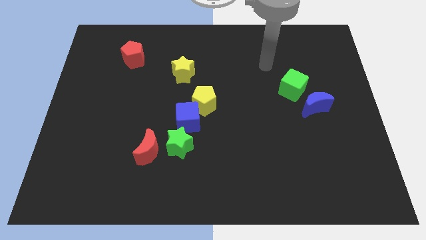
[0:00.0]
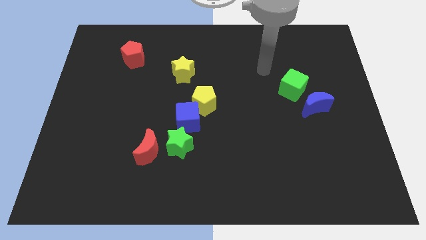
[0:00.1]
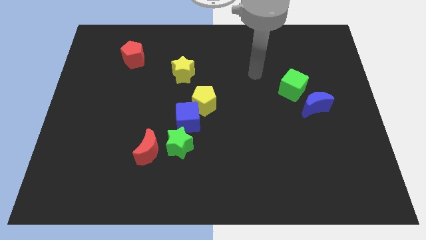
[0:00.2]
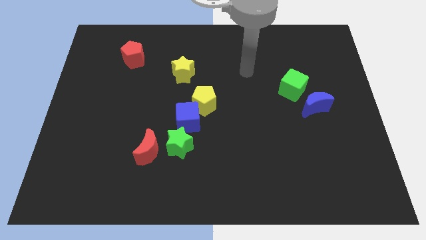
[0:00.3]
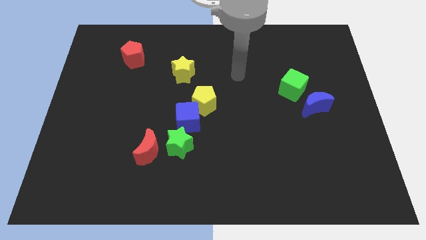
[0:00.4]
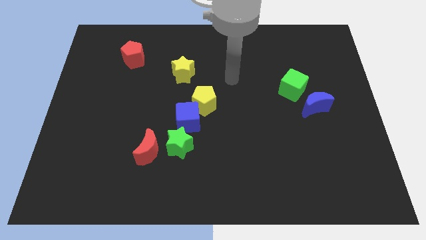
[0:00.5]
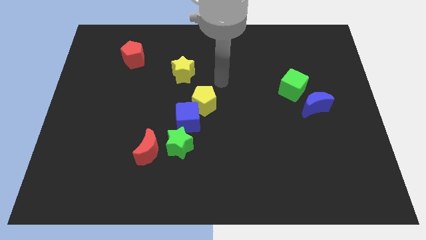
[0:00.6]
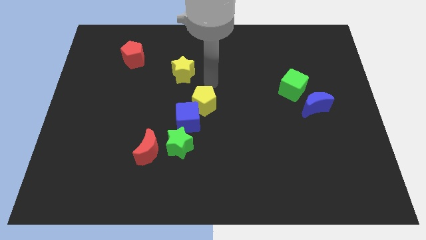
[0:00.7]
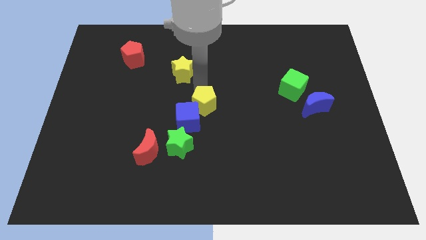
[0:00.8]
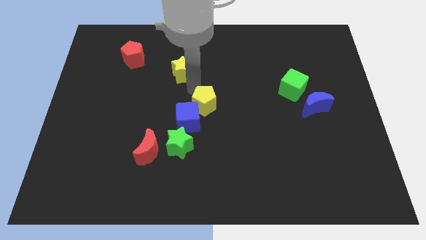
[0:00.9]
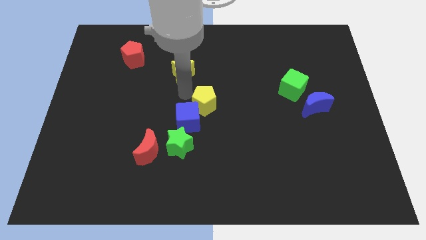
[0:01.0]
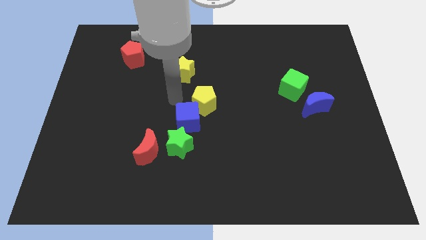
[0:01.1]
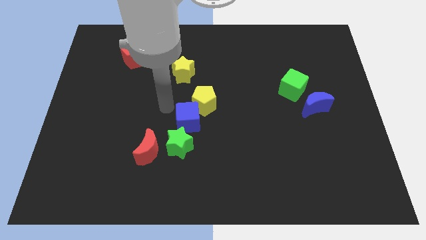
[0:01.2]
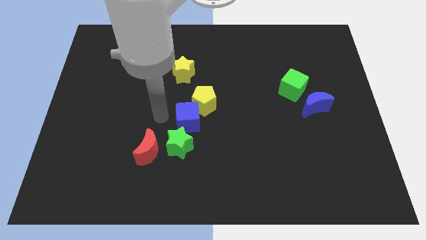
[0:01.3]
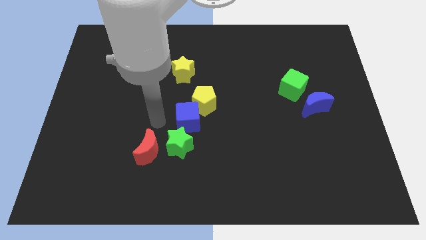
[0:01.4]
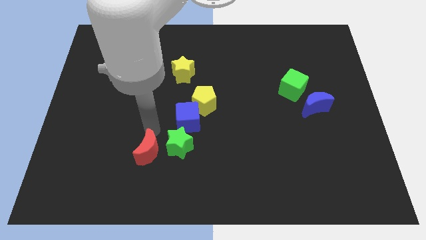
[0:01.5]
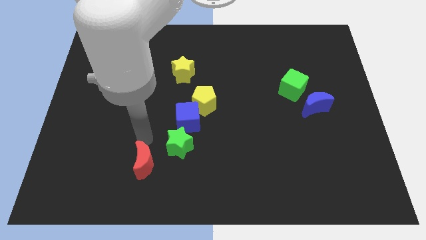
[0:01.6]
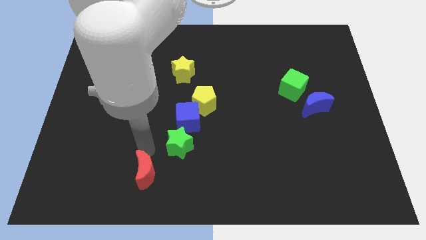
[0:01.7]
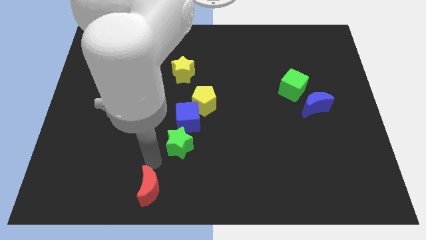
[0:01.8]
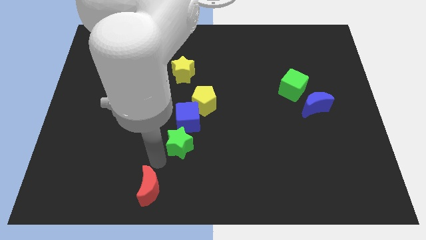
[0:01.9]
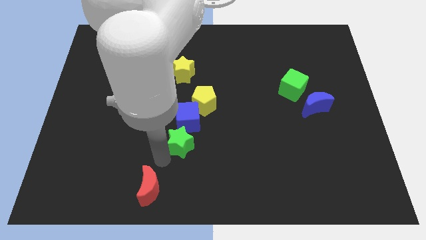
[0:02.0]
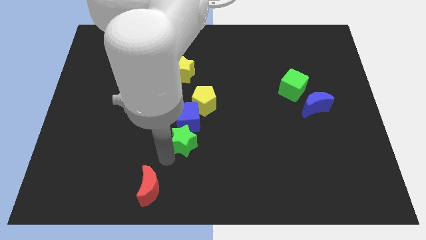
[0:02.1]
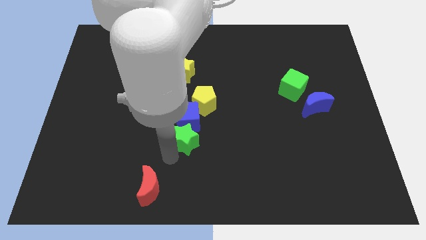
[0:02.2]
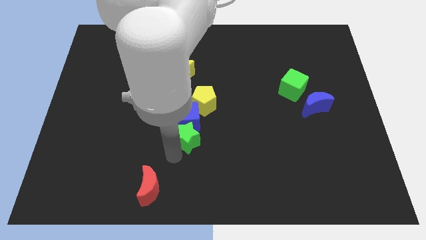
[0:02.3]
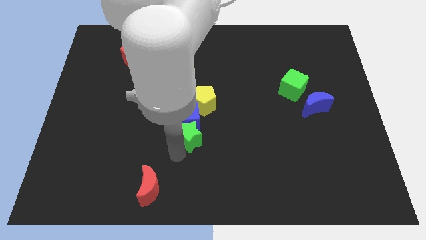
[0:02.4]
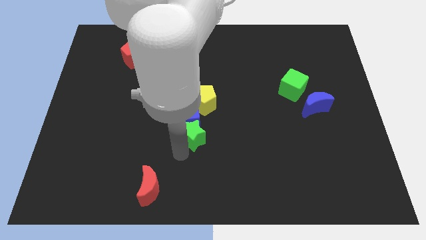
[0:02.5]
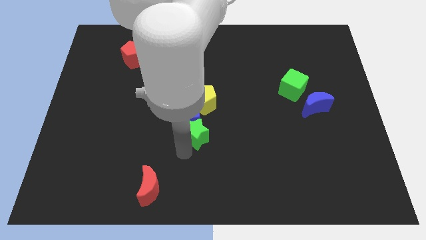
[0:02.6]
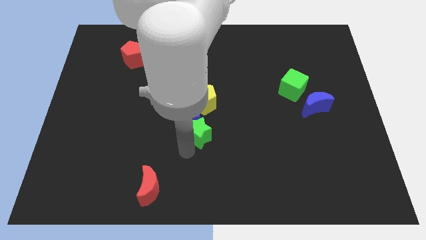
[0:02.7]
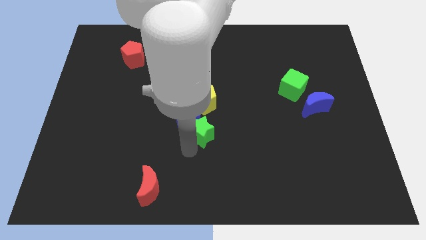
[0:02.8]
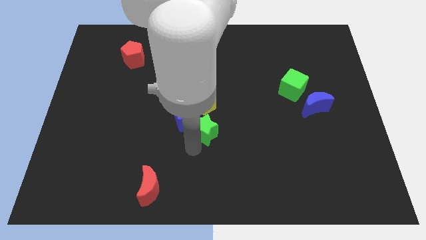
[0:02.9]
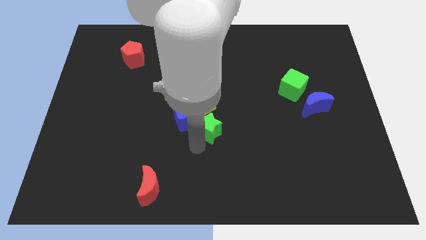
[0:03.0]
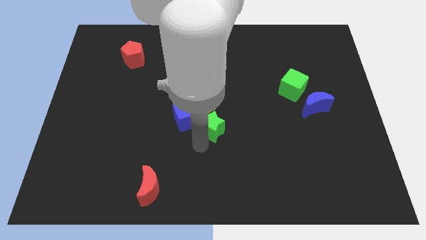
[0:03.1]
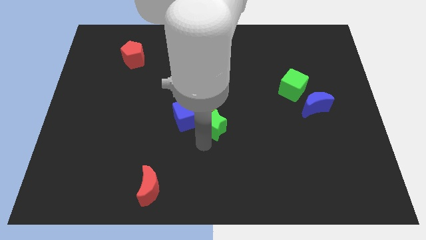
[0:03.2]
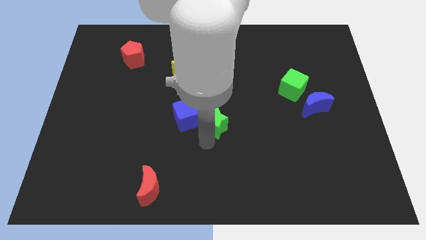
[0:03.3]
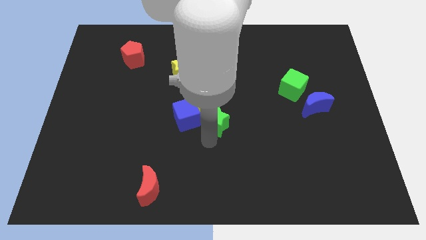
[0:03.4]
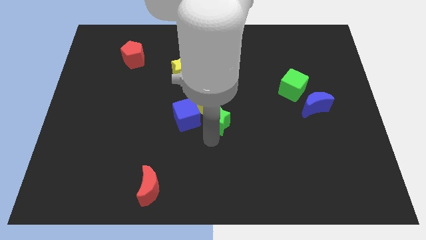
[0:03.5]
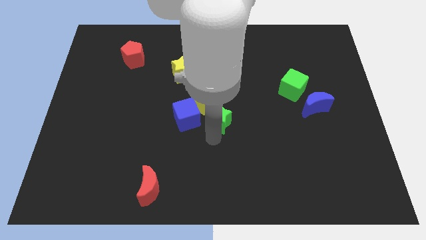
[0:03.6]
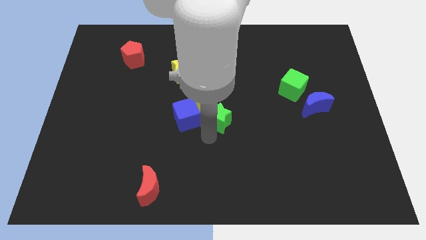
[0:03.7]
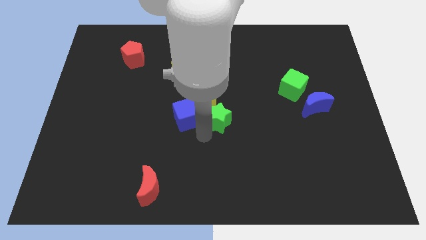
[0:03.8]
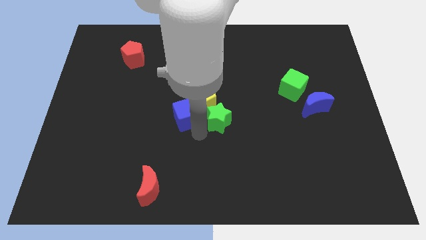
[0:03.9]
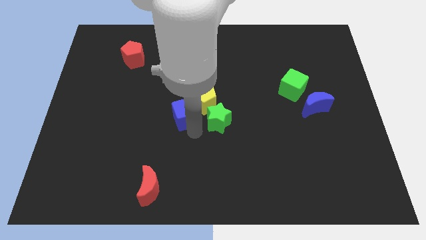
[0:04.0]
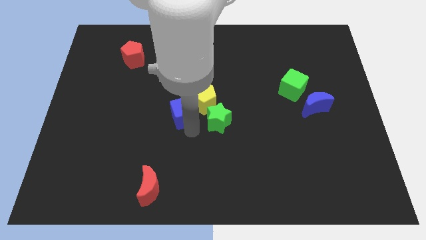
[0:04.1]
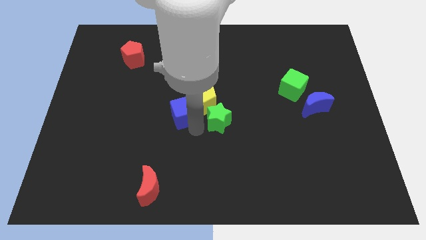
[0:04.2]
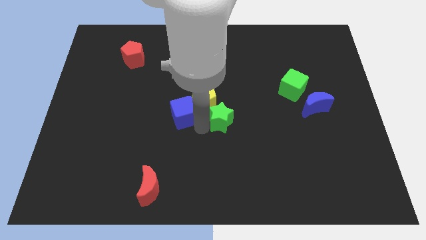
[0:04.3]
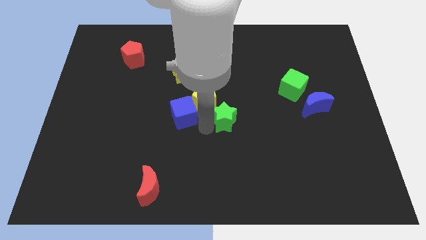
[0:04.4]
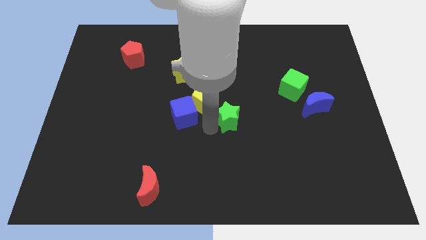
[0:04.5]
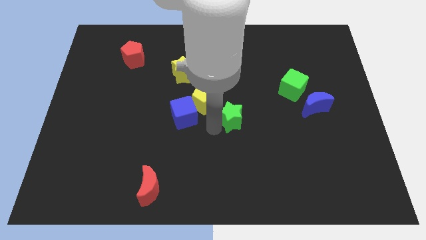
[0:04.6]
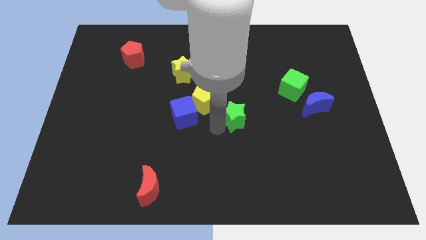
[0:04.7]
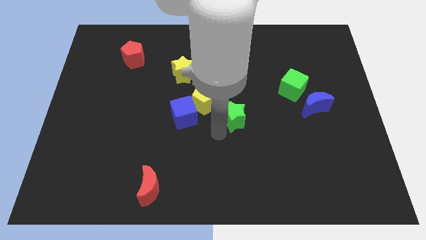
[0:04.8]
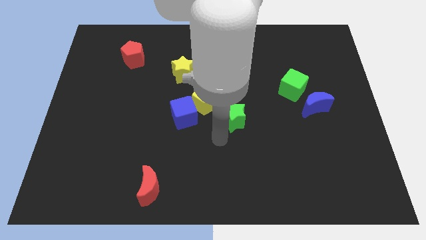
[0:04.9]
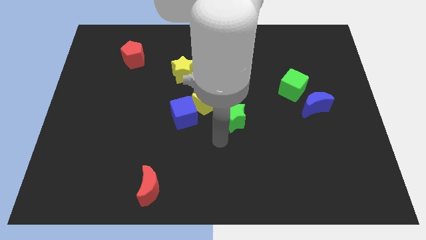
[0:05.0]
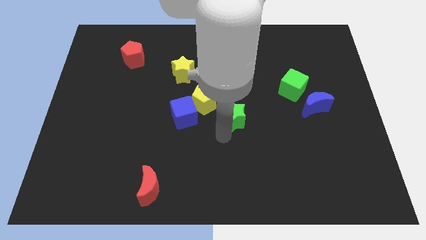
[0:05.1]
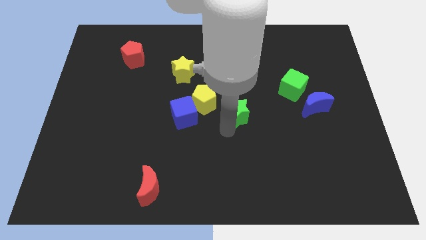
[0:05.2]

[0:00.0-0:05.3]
push the green star to the right side of the yellow pentagon

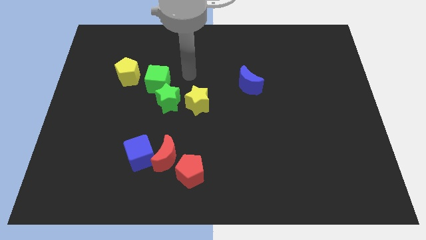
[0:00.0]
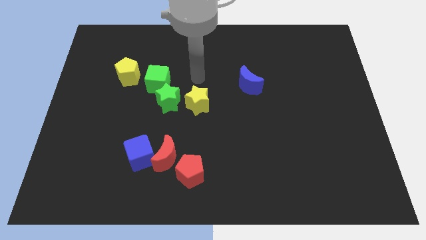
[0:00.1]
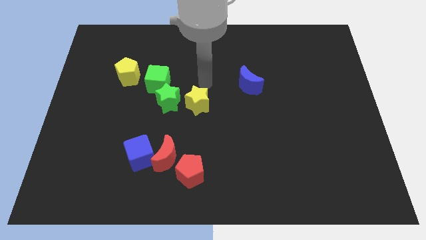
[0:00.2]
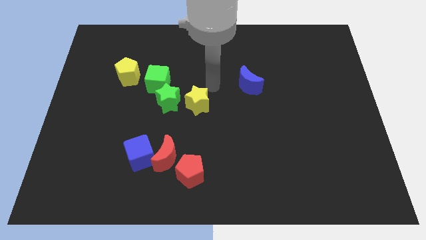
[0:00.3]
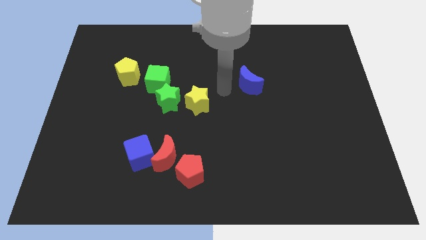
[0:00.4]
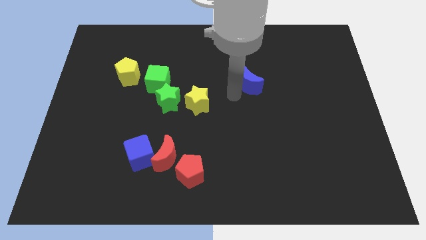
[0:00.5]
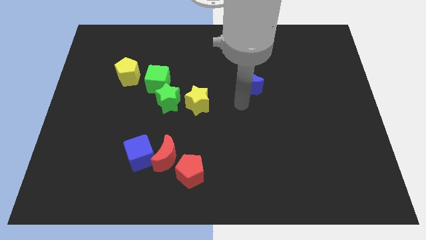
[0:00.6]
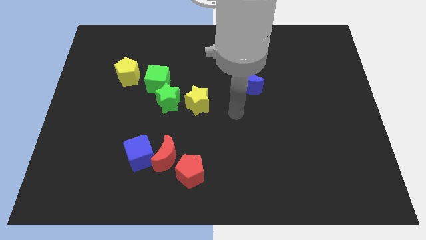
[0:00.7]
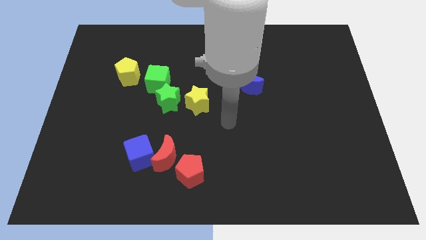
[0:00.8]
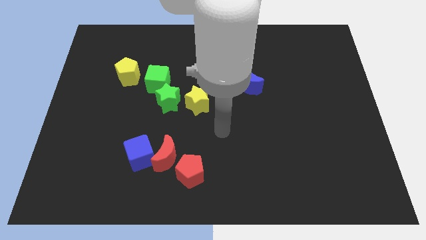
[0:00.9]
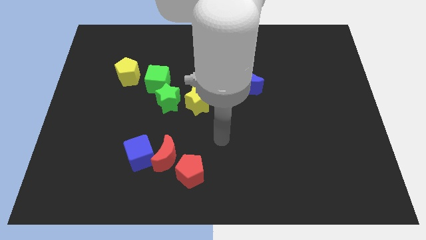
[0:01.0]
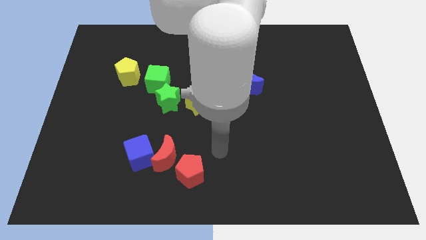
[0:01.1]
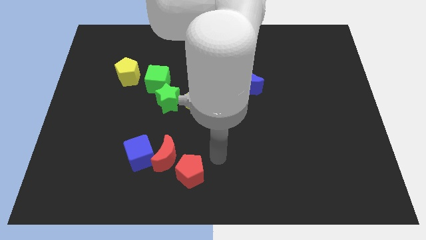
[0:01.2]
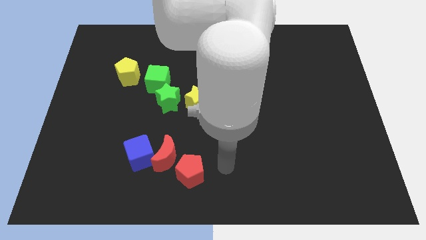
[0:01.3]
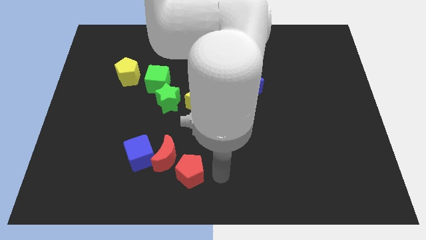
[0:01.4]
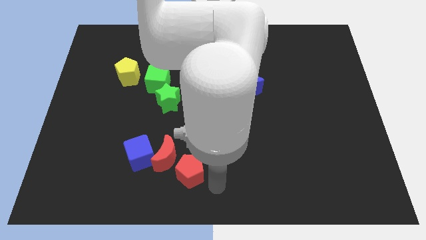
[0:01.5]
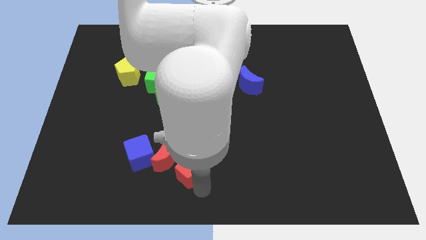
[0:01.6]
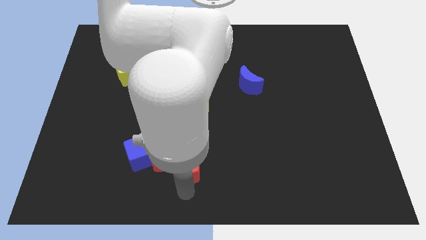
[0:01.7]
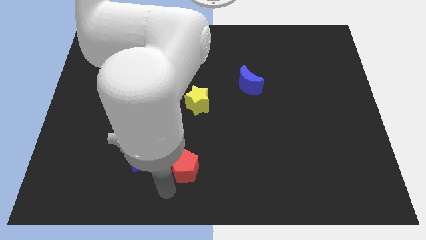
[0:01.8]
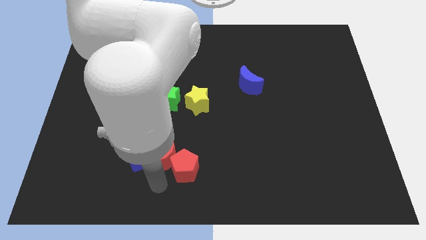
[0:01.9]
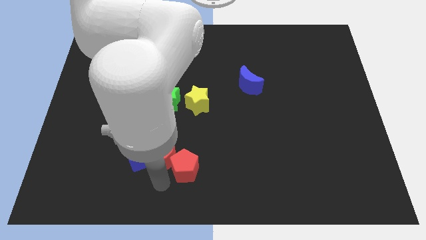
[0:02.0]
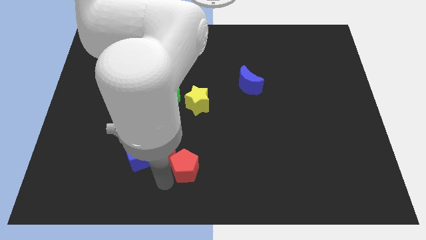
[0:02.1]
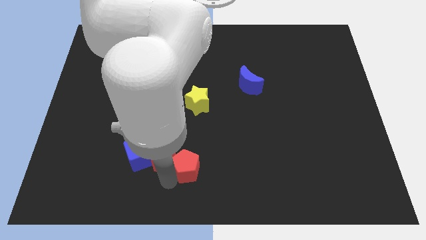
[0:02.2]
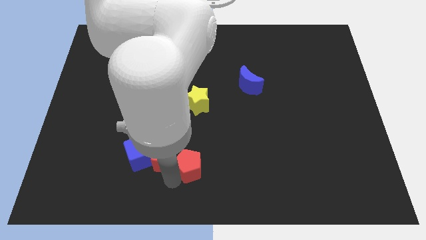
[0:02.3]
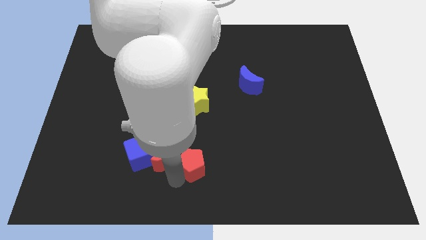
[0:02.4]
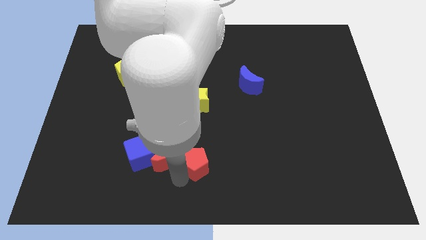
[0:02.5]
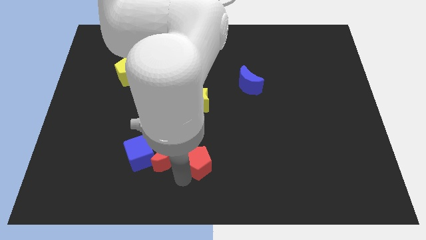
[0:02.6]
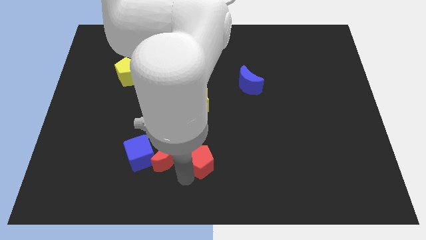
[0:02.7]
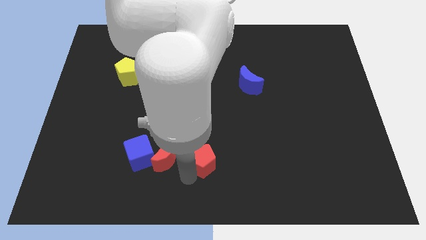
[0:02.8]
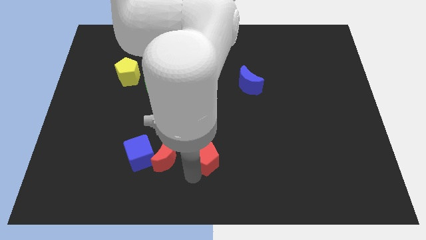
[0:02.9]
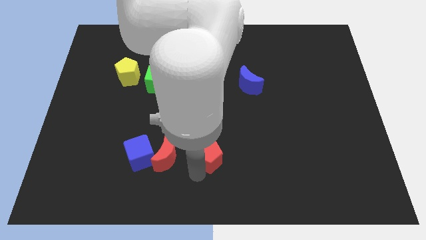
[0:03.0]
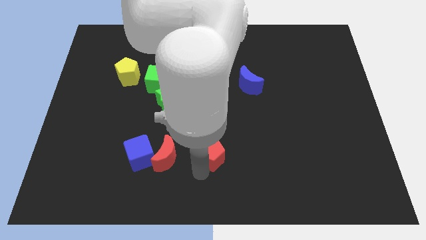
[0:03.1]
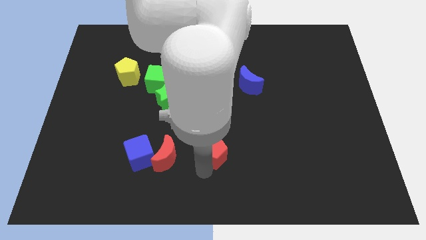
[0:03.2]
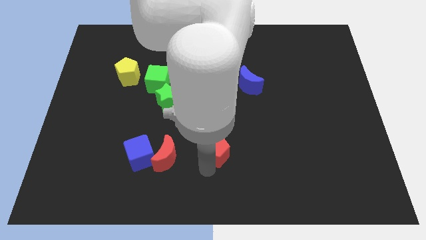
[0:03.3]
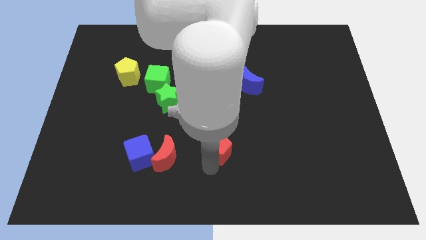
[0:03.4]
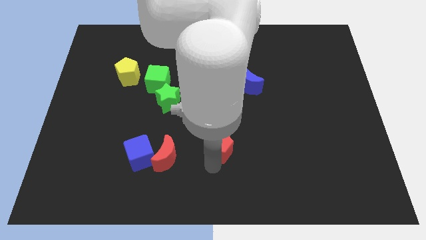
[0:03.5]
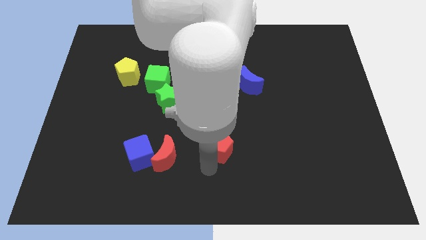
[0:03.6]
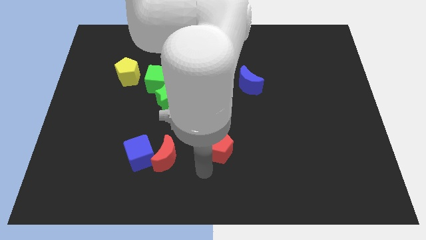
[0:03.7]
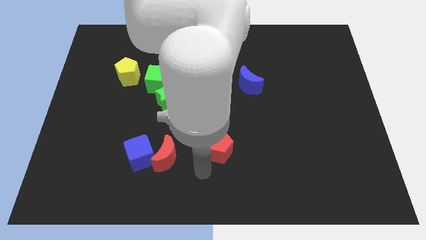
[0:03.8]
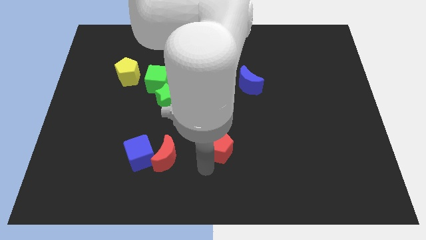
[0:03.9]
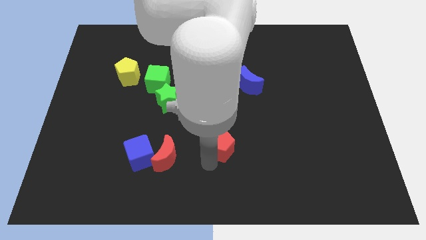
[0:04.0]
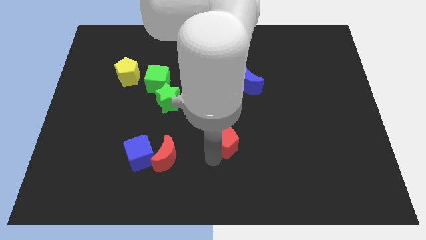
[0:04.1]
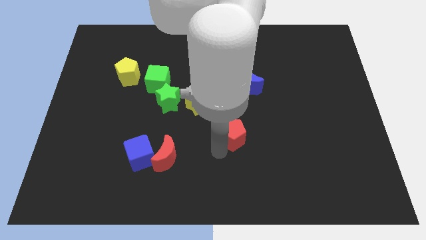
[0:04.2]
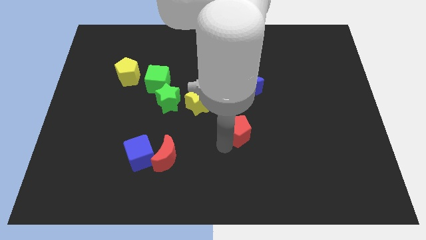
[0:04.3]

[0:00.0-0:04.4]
move the red pentagon to the bottom of the blue moon
